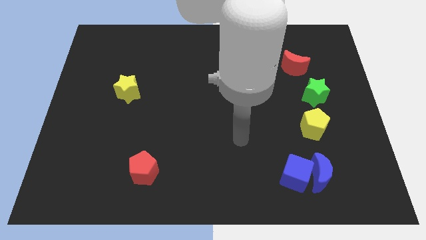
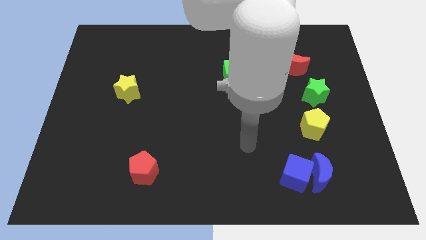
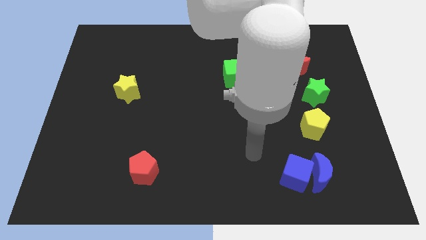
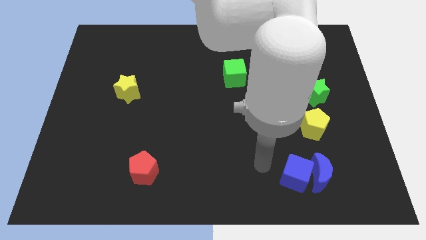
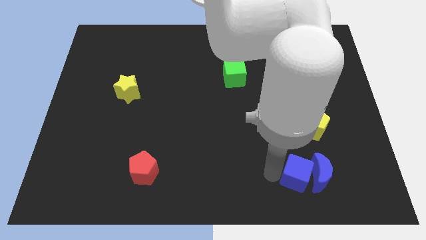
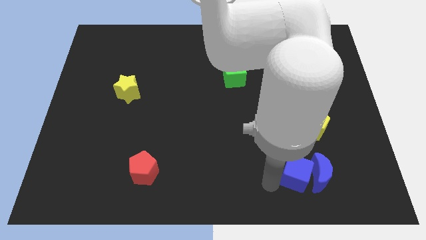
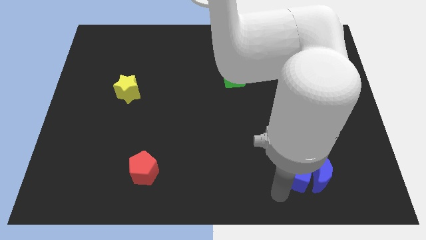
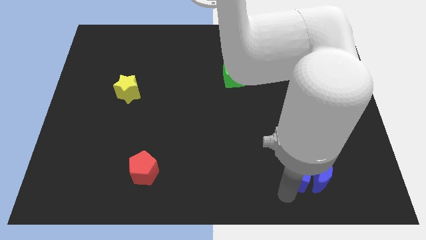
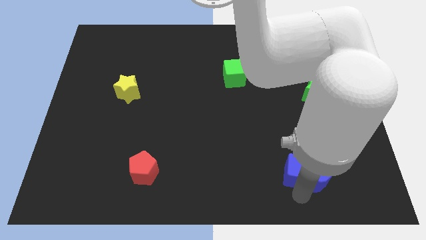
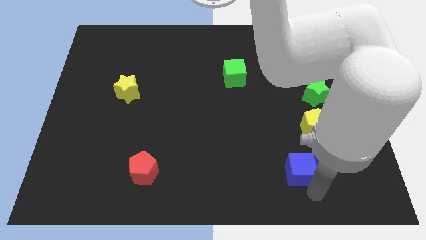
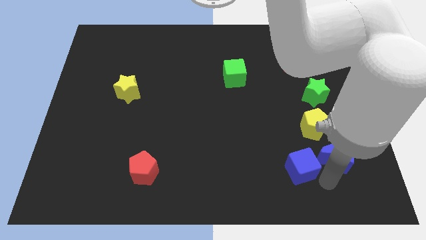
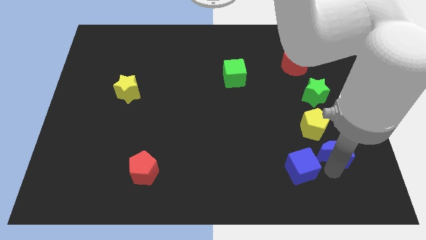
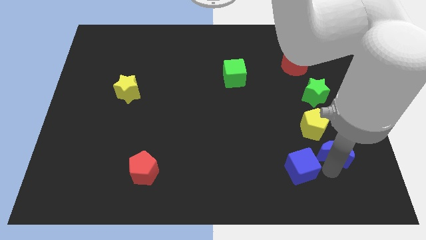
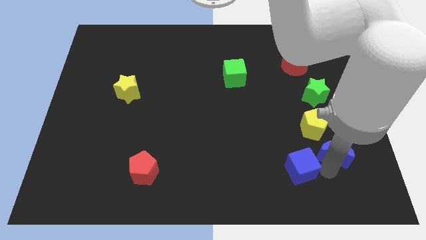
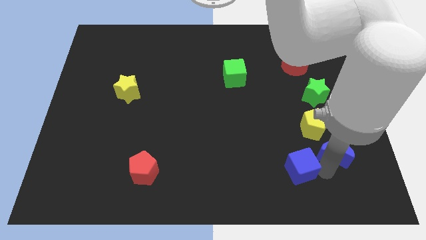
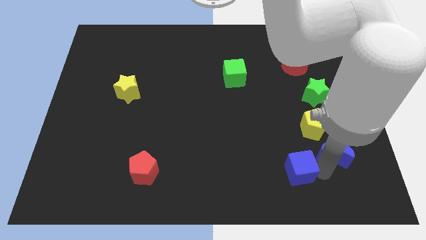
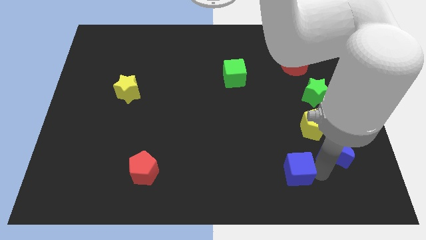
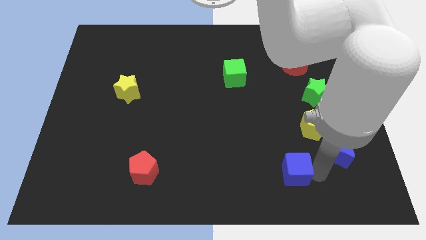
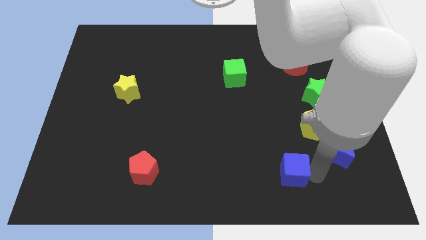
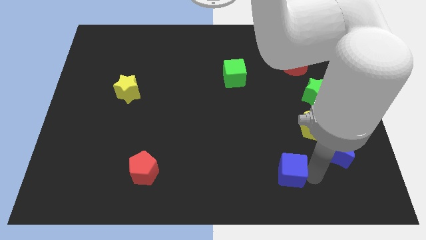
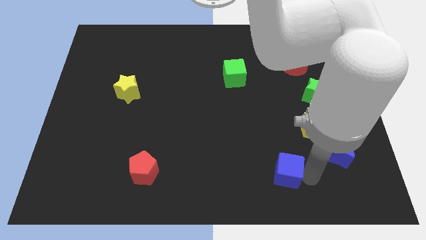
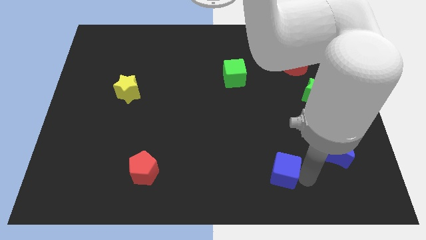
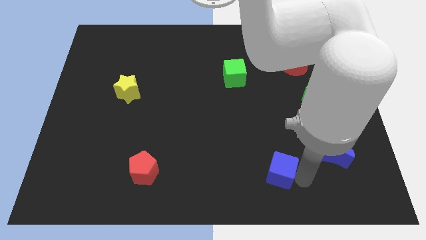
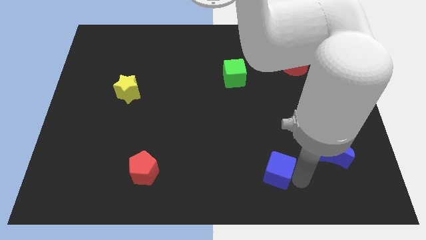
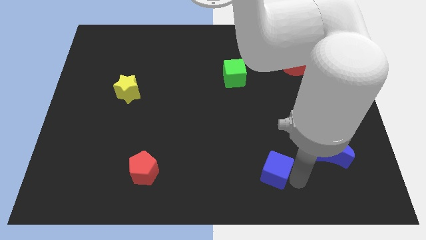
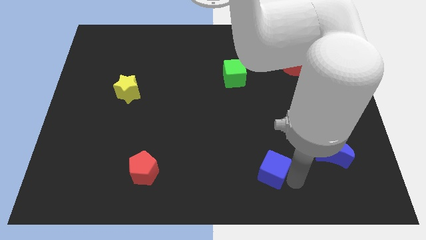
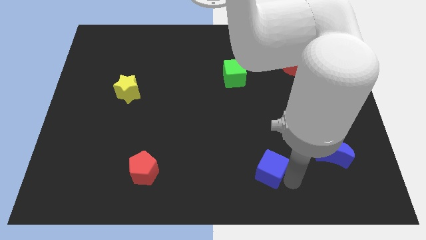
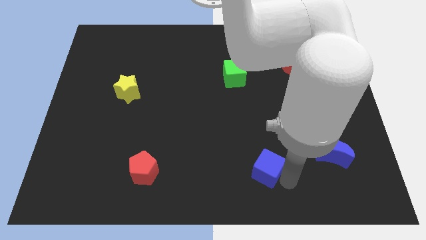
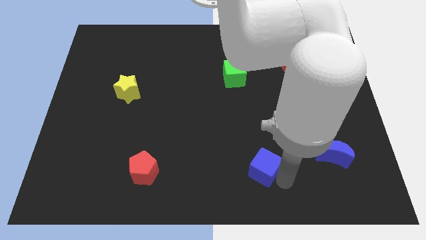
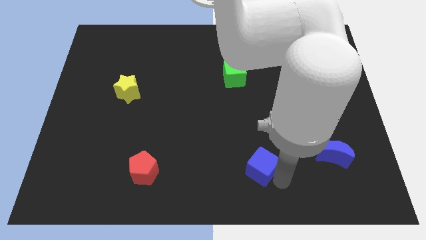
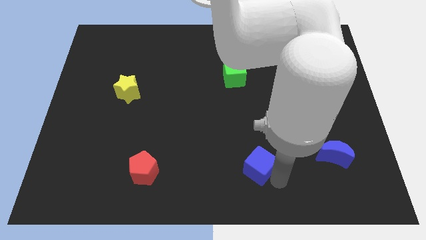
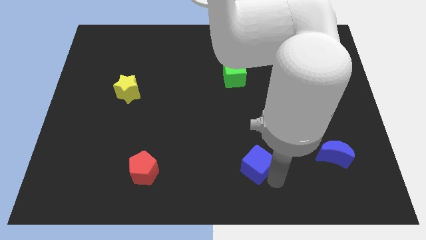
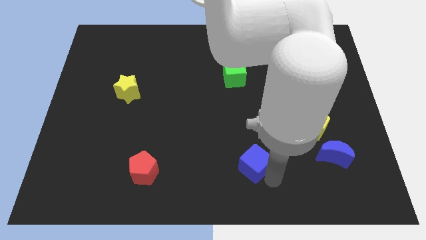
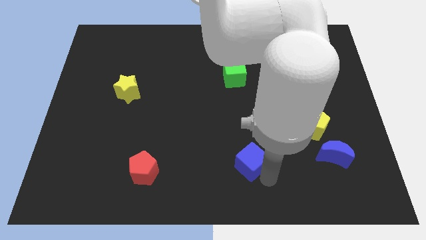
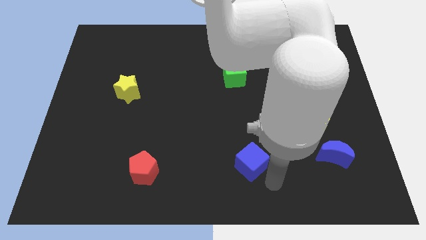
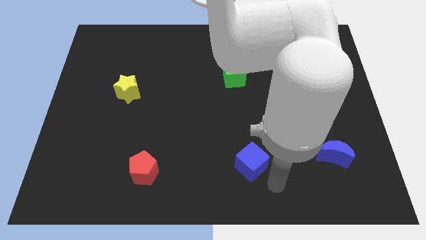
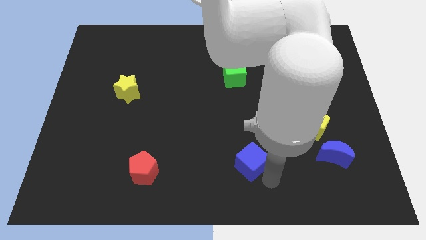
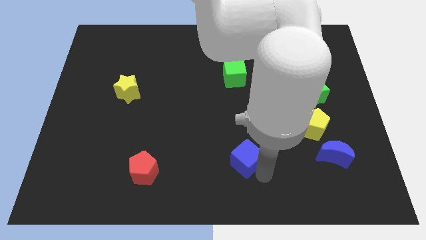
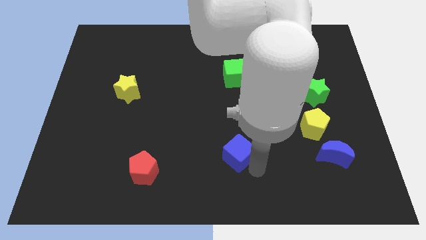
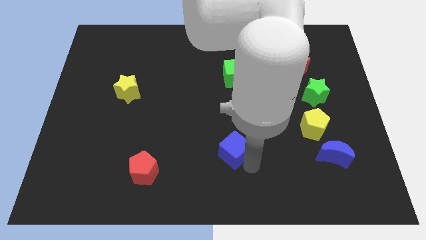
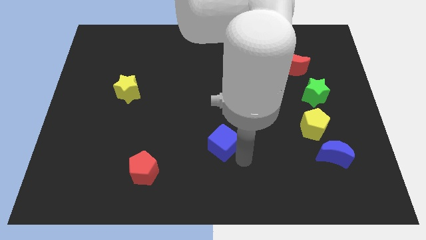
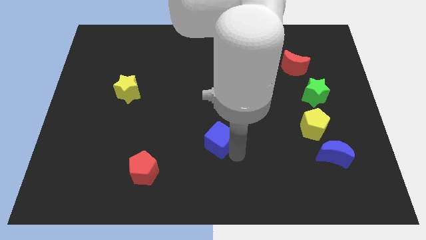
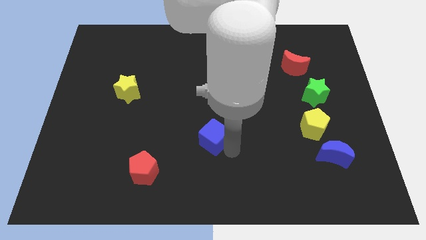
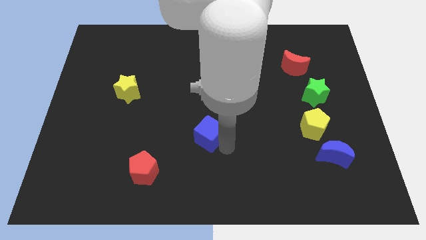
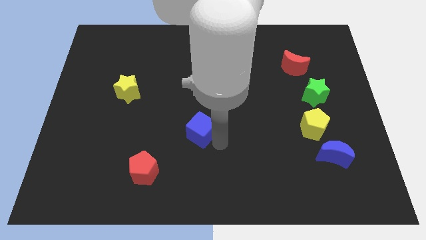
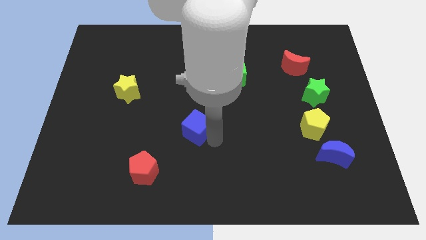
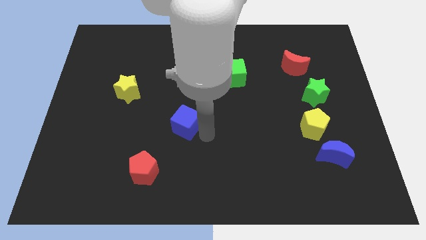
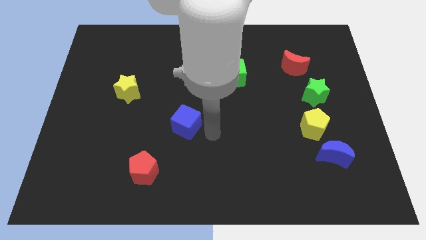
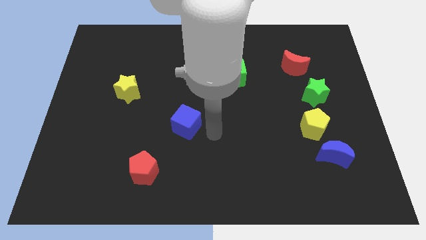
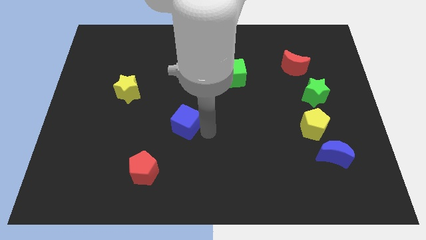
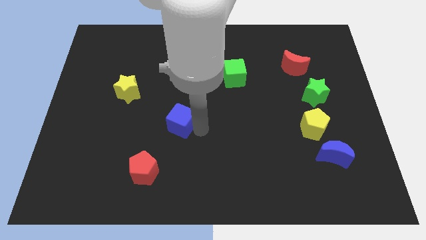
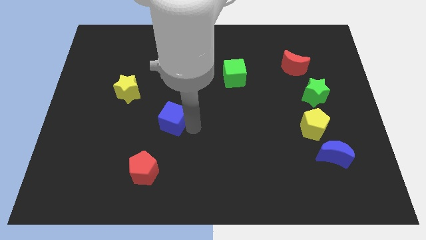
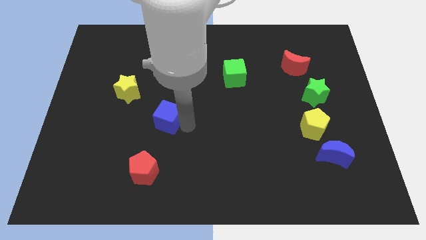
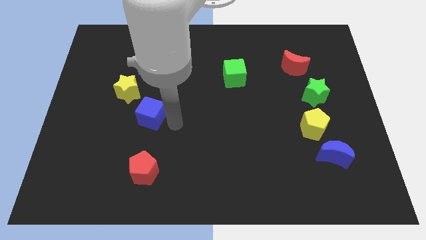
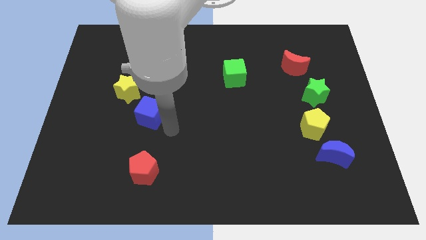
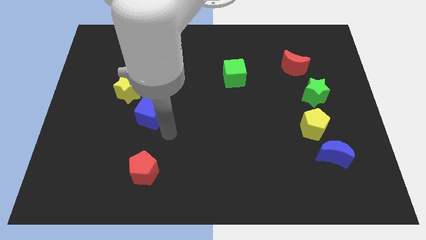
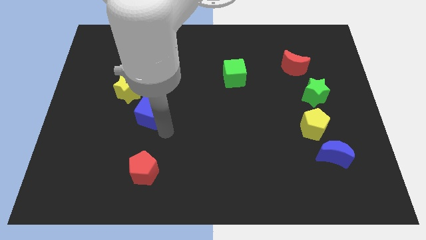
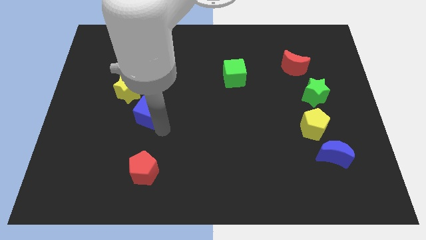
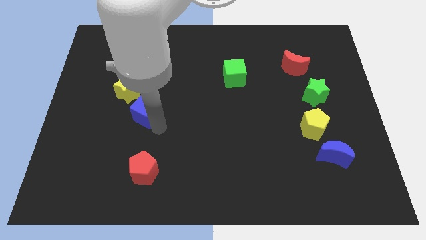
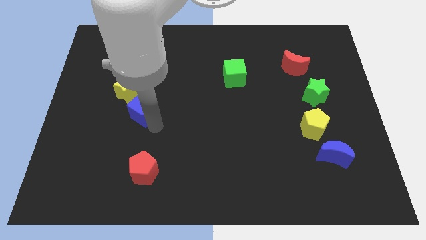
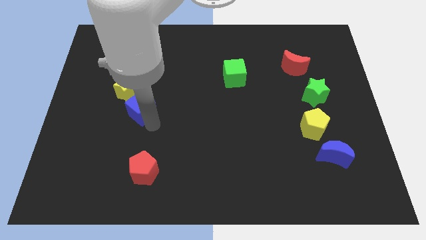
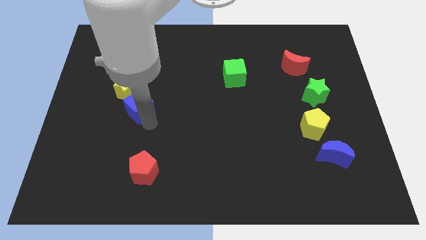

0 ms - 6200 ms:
move the blue cube next to the yellow star

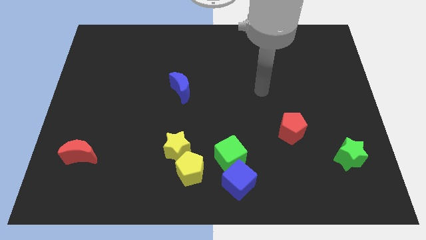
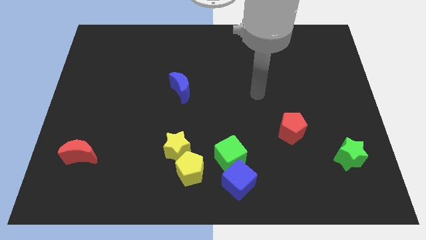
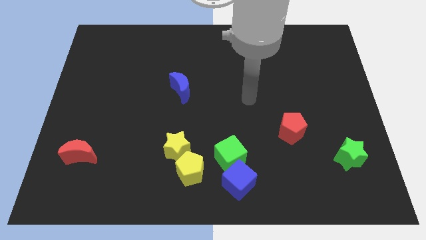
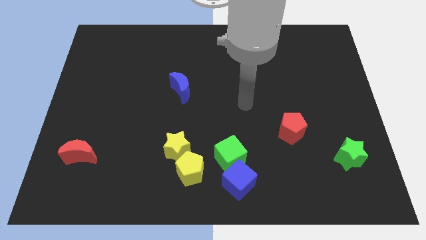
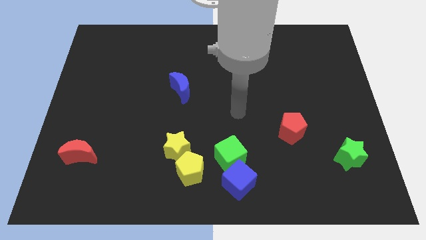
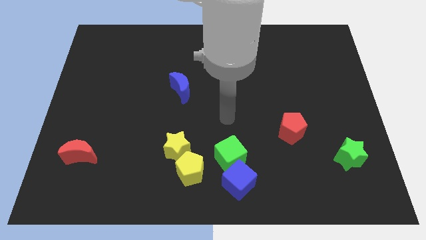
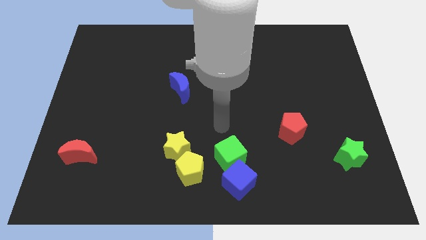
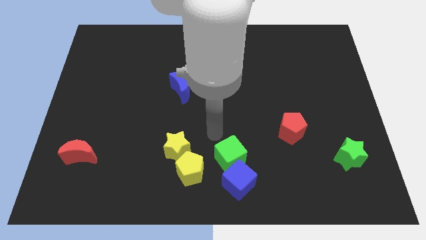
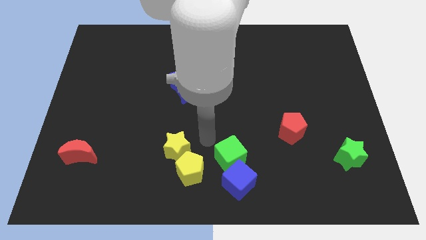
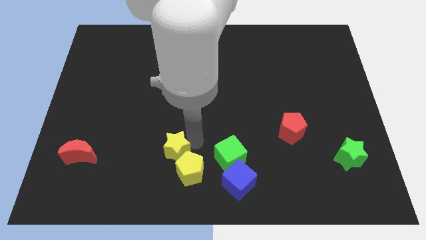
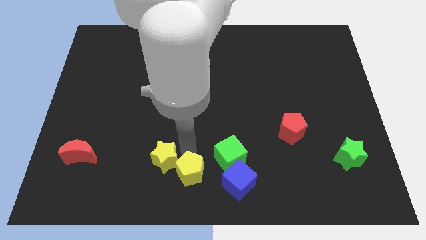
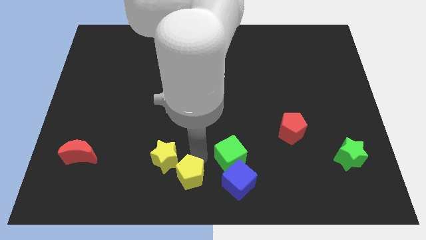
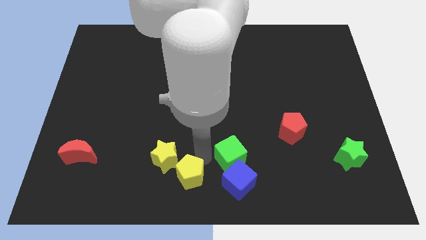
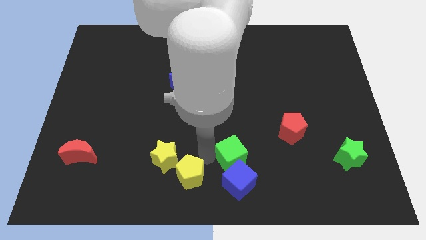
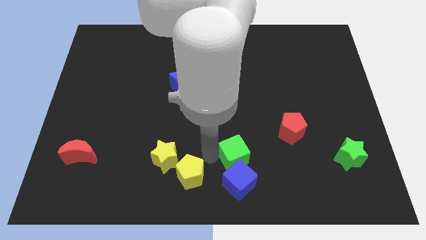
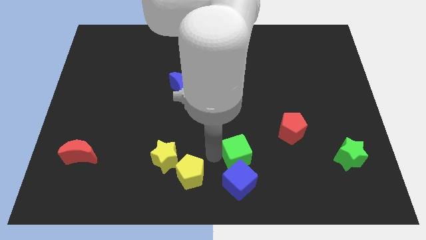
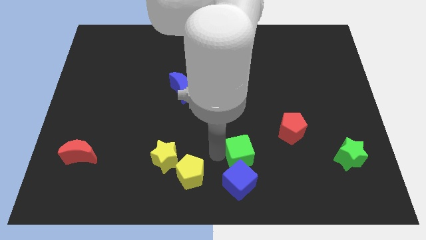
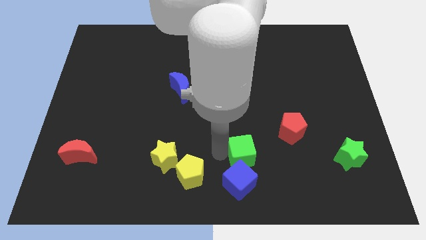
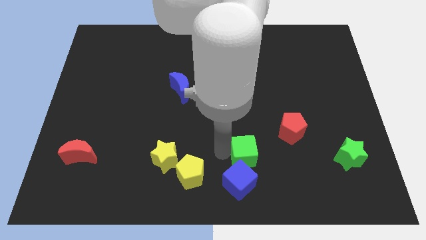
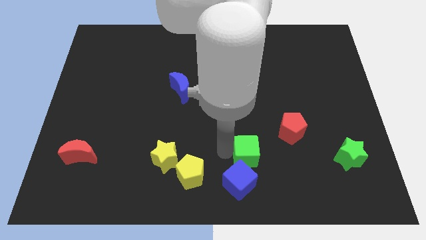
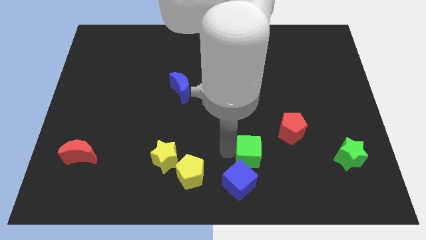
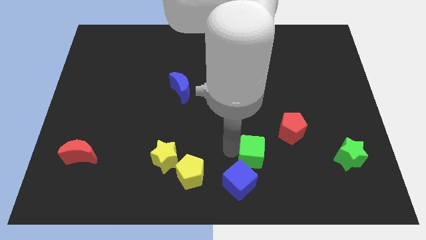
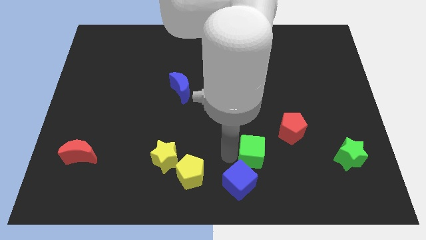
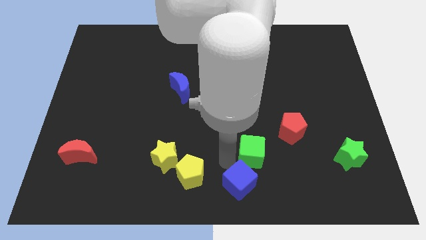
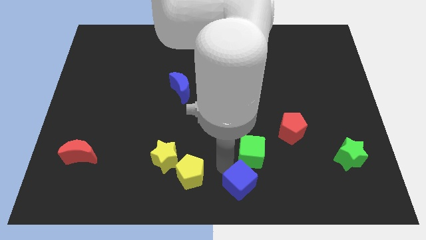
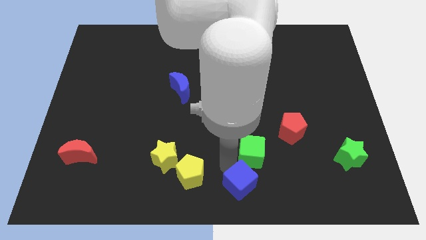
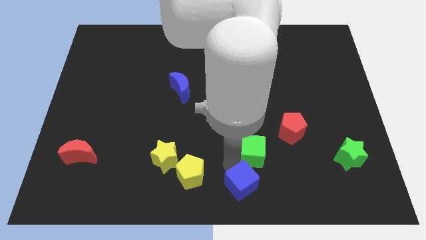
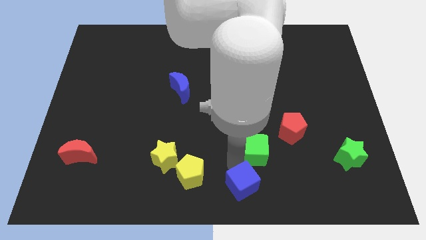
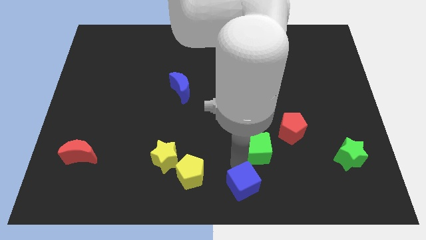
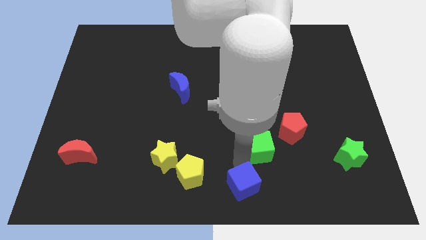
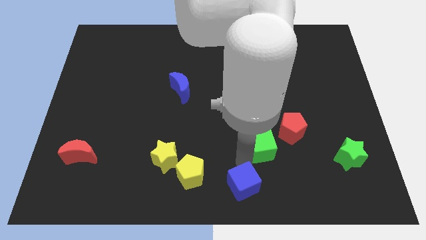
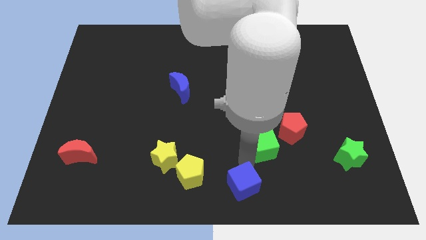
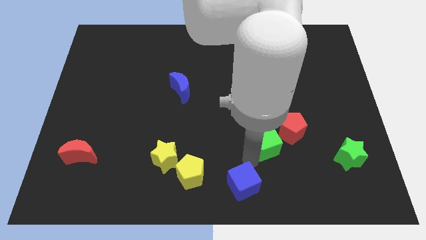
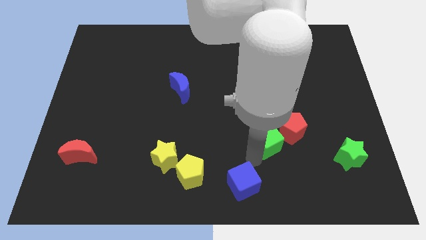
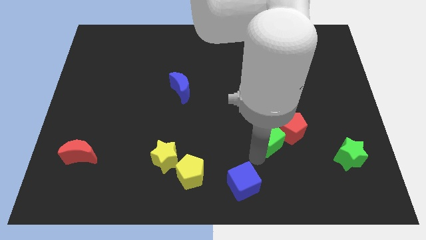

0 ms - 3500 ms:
move the green cube next to the red pentagon
